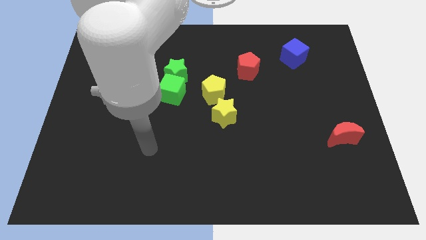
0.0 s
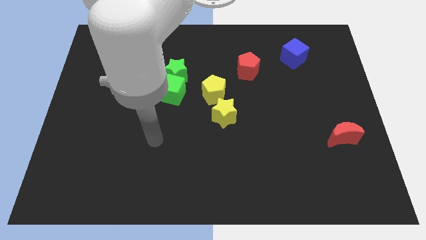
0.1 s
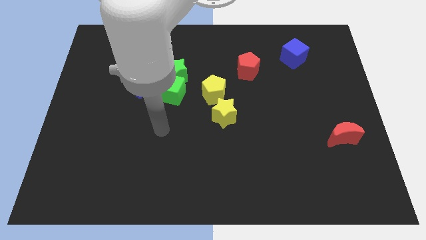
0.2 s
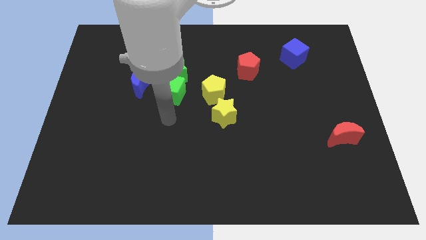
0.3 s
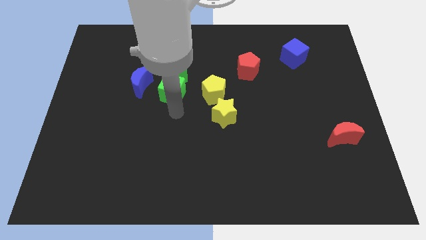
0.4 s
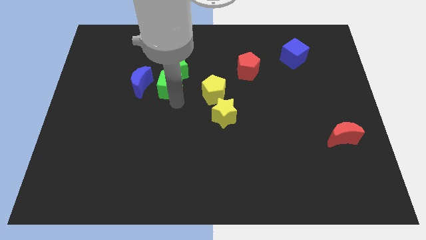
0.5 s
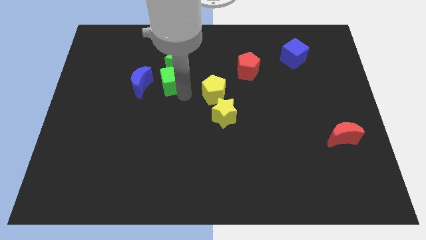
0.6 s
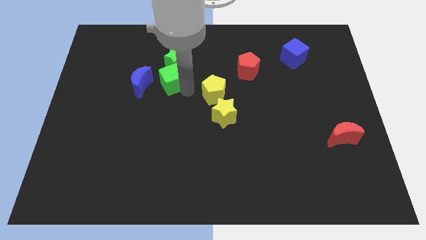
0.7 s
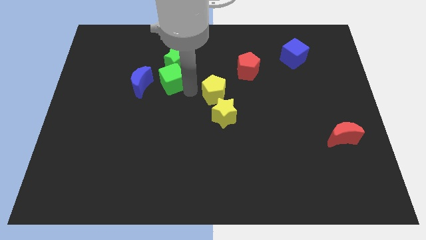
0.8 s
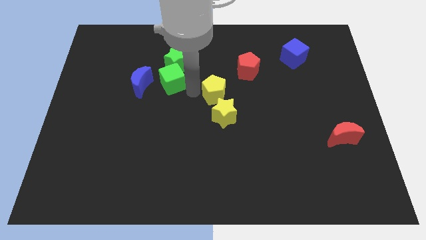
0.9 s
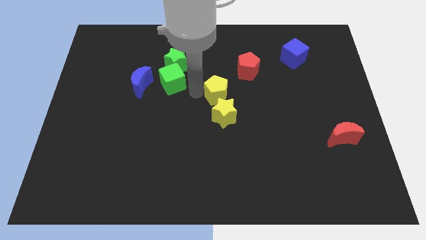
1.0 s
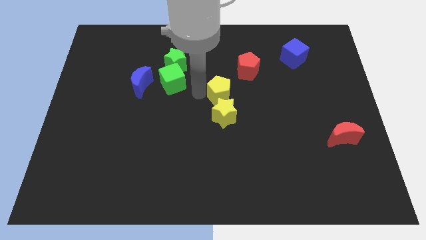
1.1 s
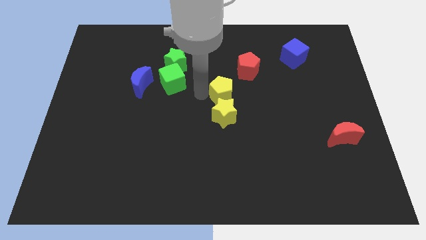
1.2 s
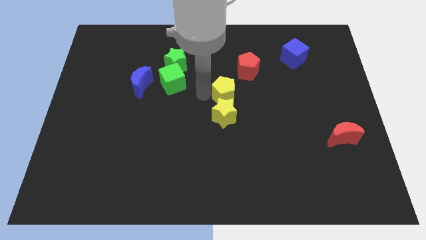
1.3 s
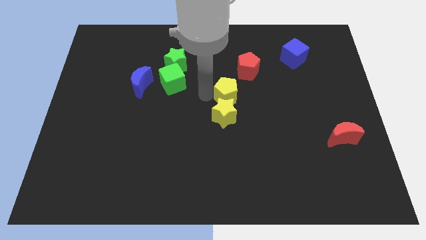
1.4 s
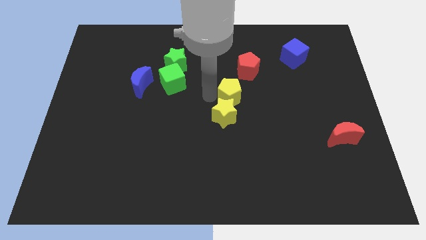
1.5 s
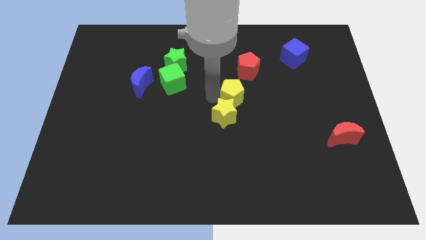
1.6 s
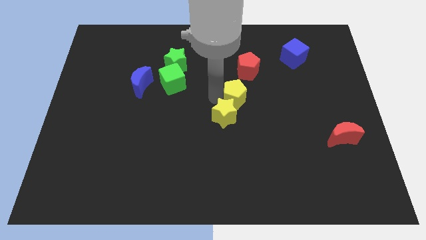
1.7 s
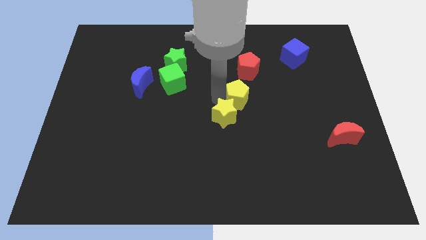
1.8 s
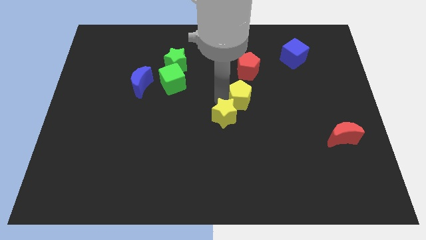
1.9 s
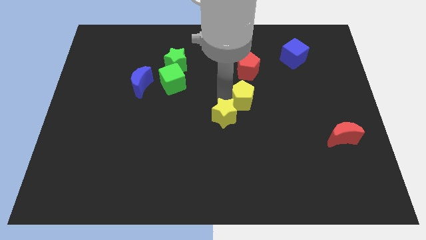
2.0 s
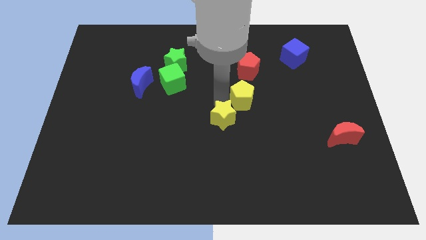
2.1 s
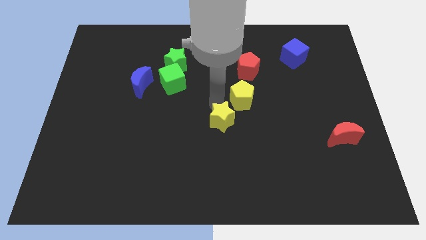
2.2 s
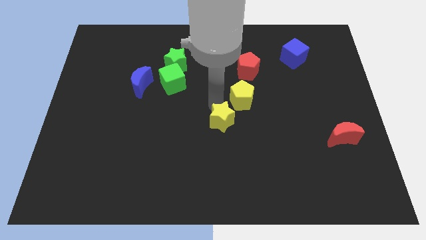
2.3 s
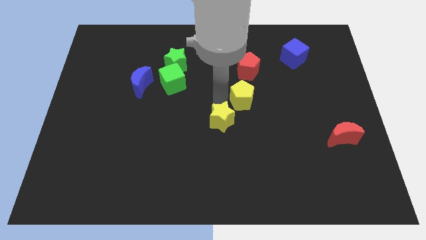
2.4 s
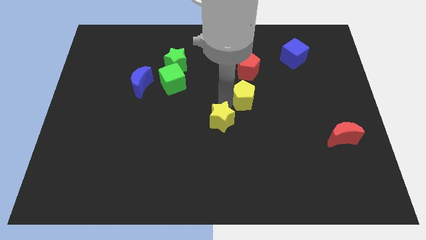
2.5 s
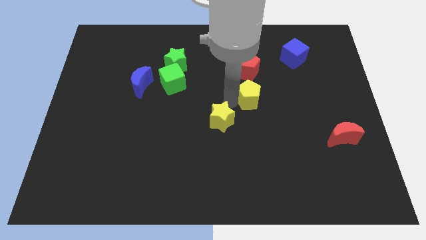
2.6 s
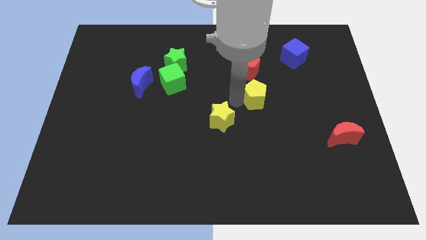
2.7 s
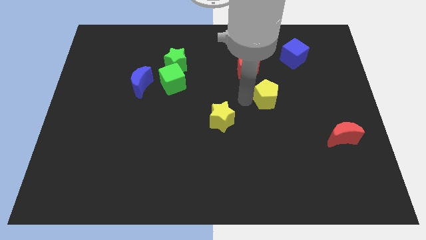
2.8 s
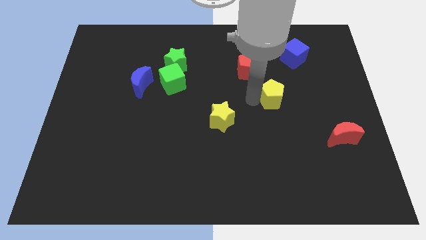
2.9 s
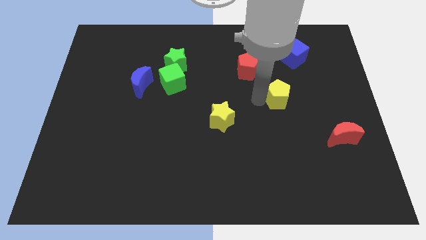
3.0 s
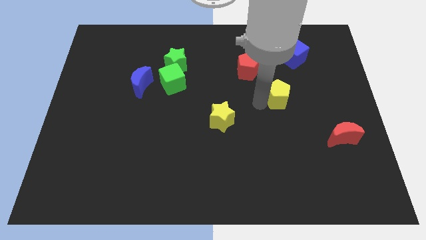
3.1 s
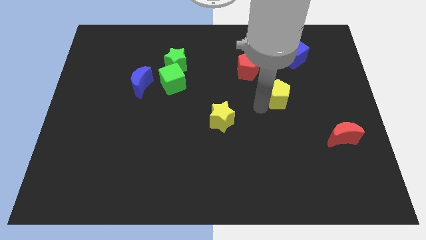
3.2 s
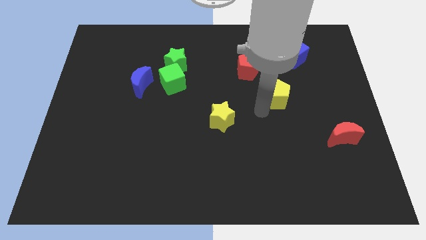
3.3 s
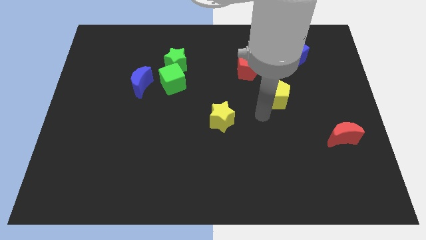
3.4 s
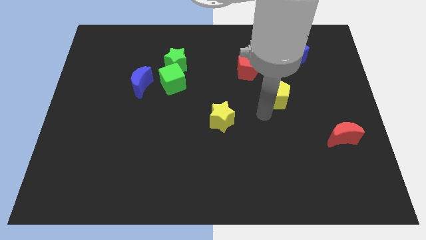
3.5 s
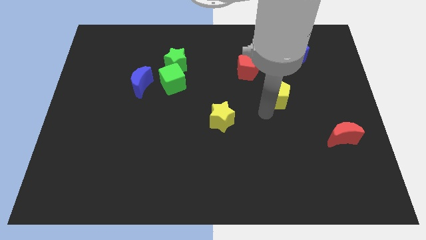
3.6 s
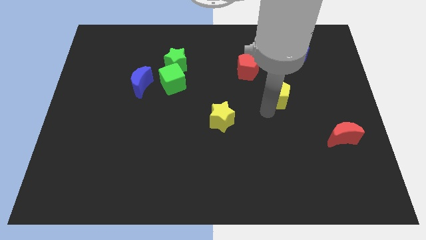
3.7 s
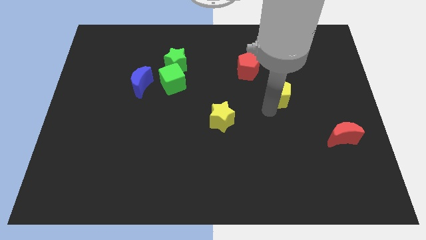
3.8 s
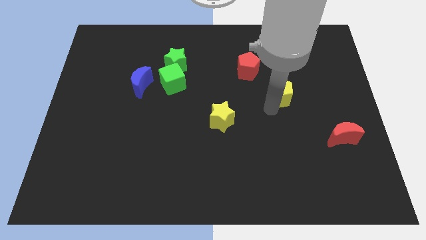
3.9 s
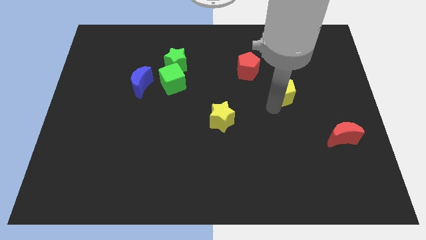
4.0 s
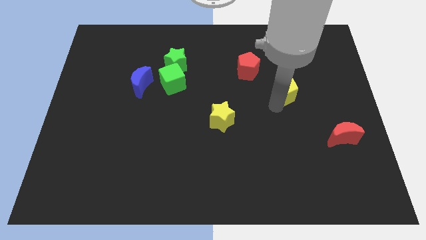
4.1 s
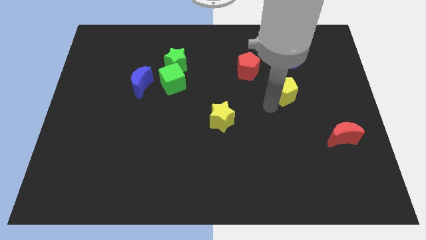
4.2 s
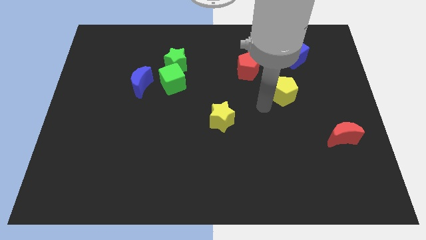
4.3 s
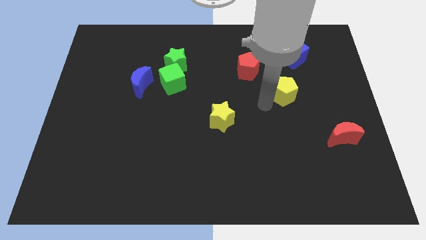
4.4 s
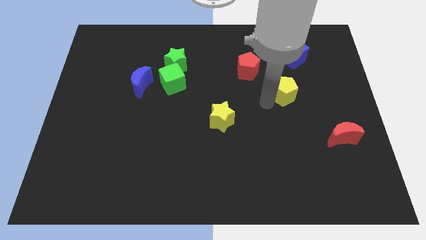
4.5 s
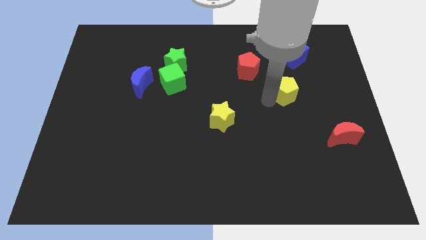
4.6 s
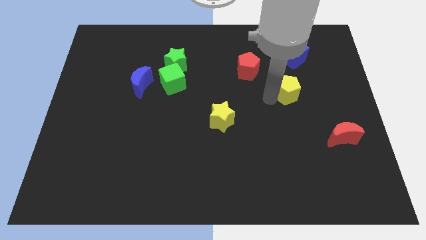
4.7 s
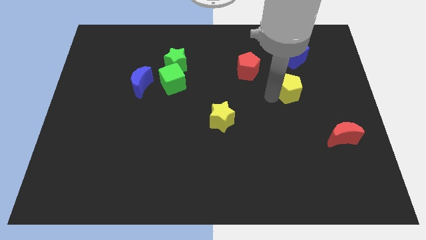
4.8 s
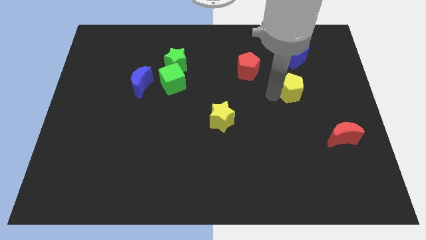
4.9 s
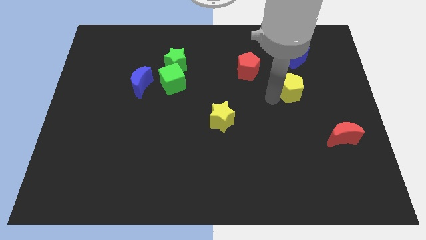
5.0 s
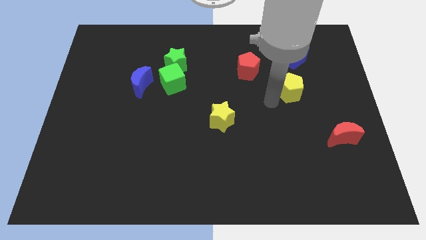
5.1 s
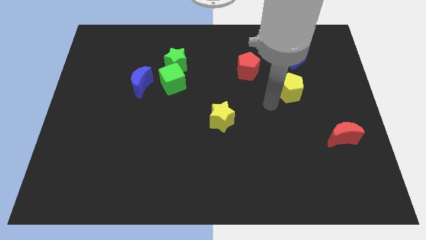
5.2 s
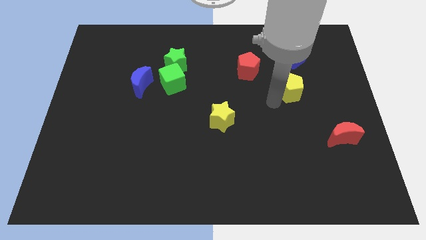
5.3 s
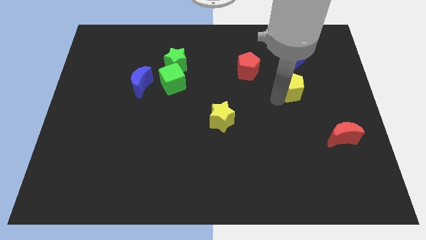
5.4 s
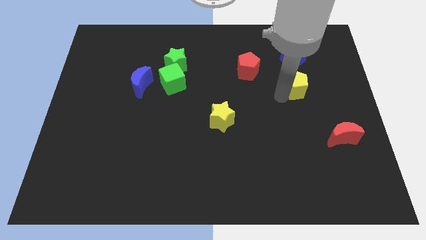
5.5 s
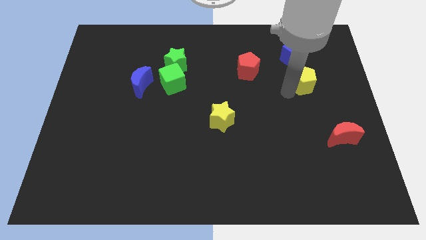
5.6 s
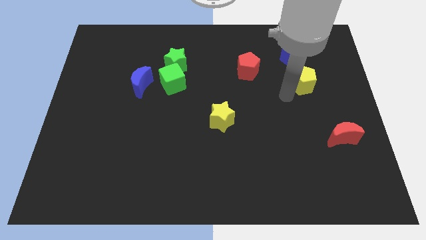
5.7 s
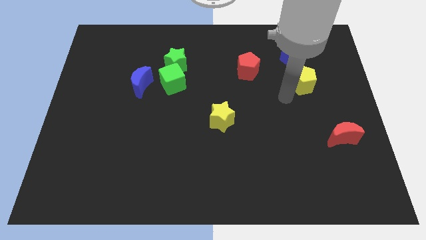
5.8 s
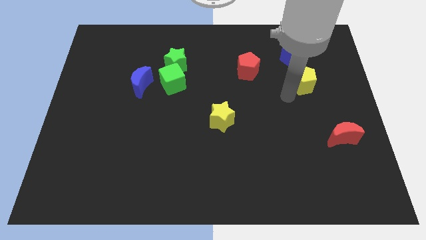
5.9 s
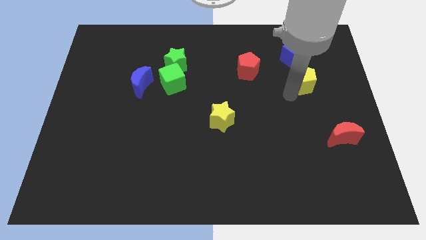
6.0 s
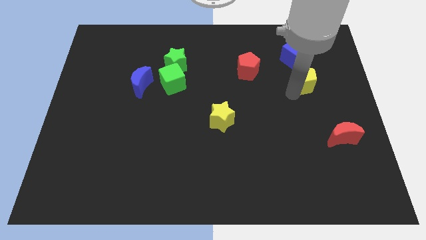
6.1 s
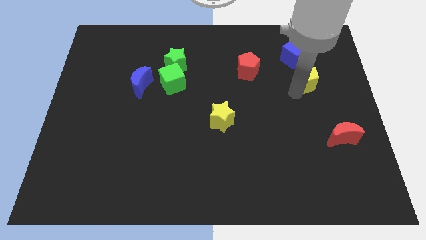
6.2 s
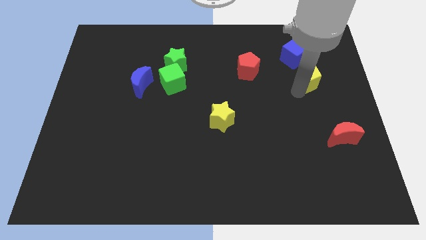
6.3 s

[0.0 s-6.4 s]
move the yellow pentagon diagonally down and to the right of the blue cube

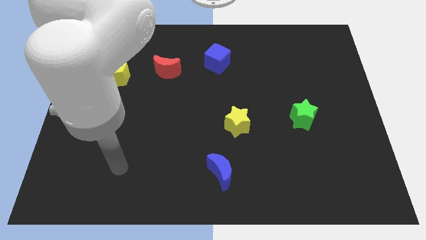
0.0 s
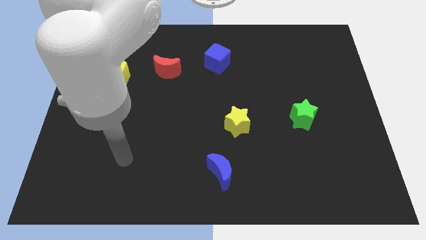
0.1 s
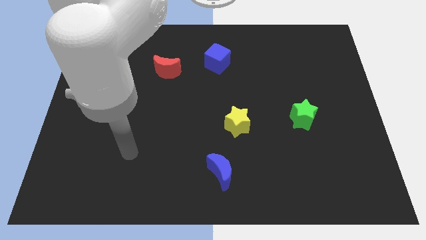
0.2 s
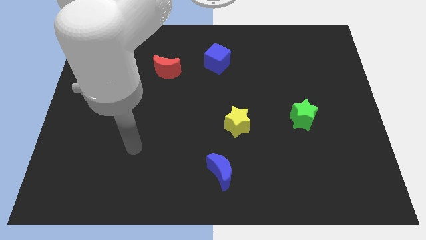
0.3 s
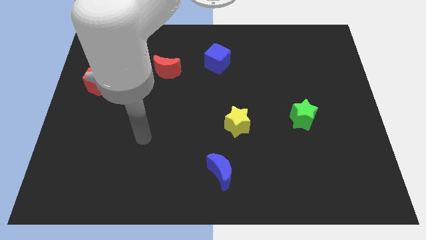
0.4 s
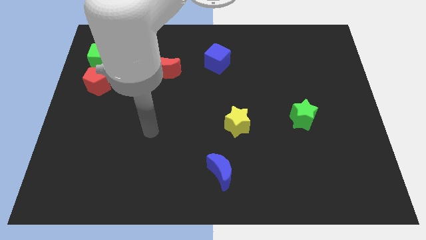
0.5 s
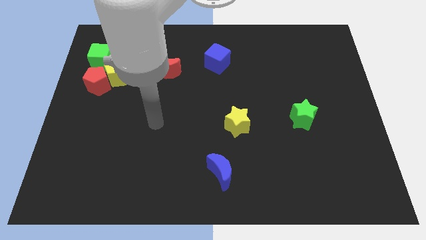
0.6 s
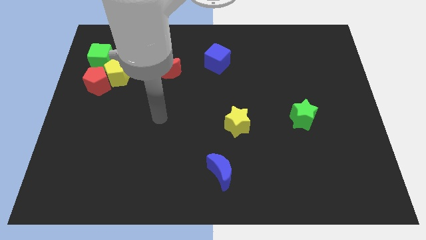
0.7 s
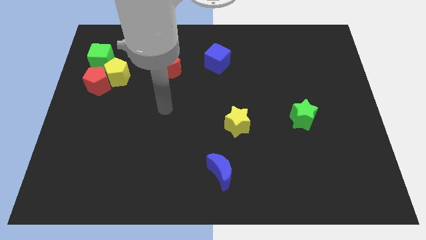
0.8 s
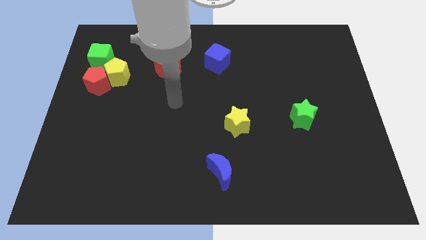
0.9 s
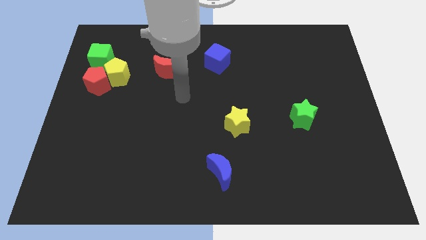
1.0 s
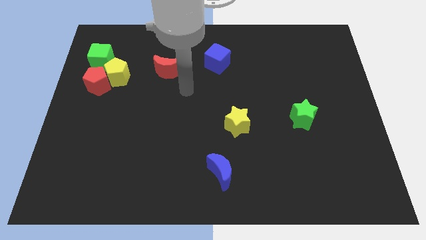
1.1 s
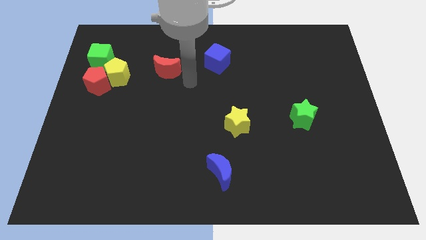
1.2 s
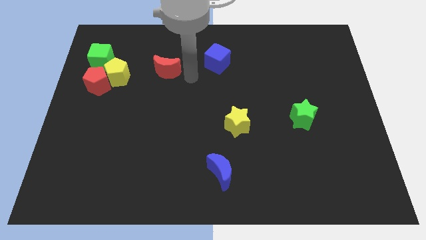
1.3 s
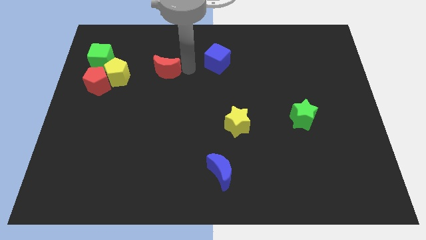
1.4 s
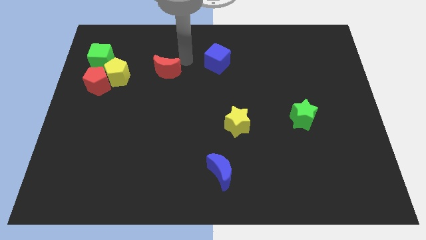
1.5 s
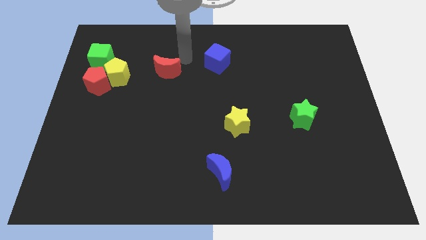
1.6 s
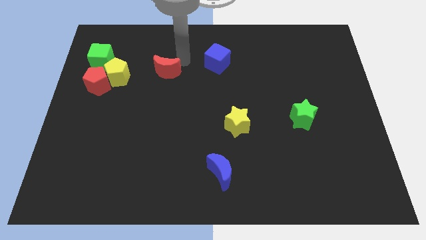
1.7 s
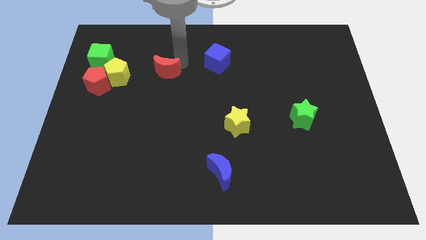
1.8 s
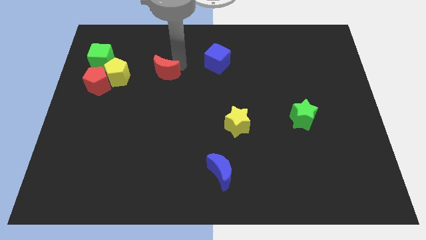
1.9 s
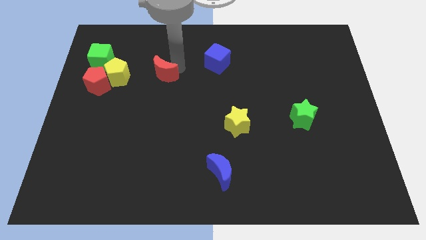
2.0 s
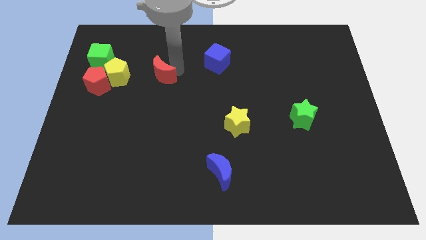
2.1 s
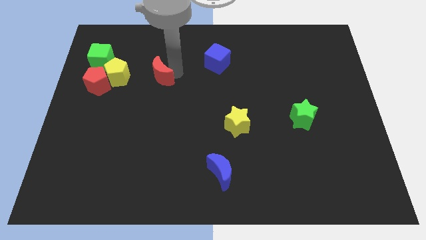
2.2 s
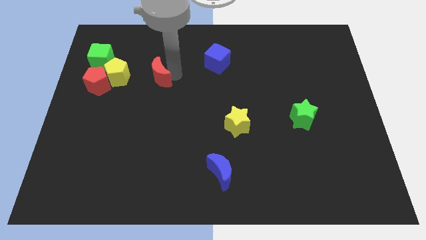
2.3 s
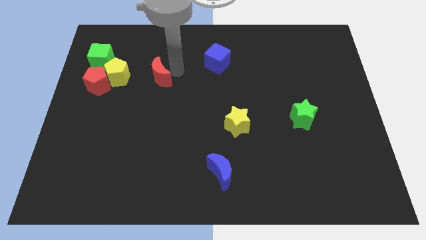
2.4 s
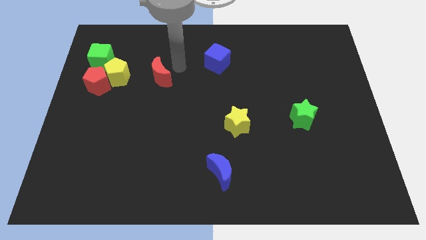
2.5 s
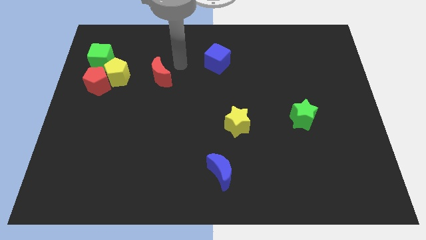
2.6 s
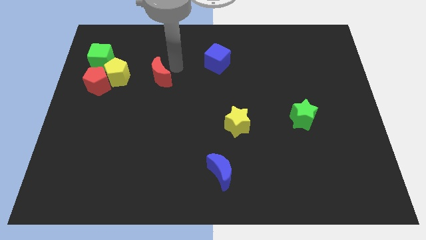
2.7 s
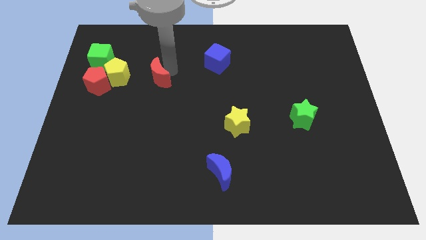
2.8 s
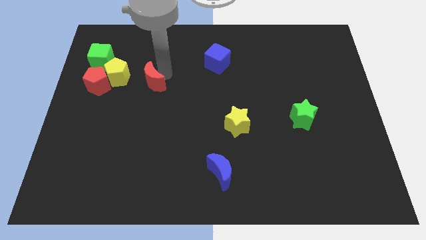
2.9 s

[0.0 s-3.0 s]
push the red moon to the bottom right side of the yellow pentagon
